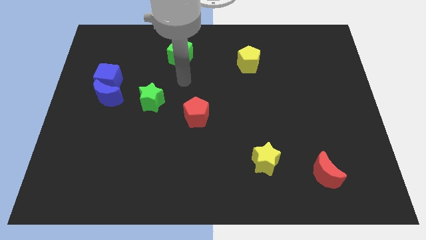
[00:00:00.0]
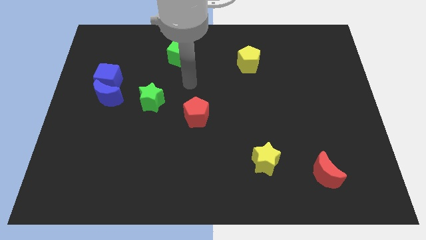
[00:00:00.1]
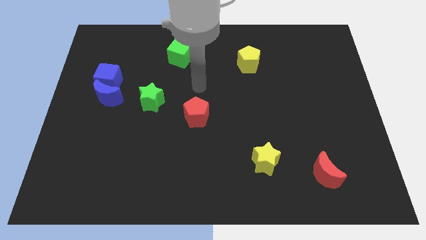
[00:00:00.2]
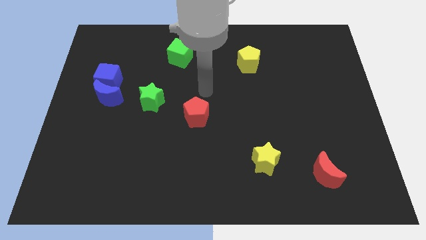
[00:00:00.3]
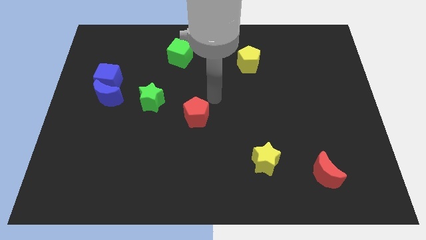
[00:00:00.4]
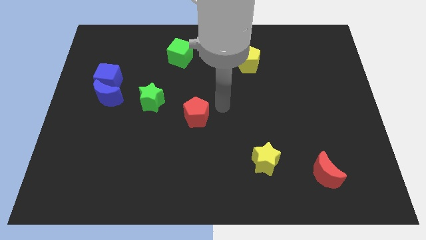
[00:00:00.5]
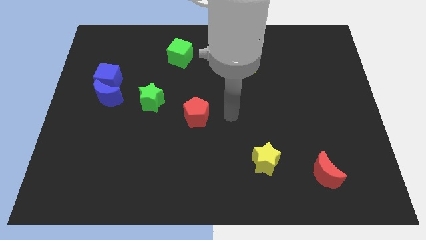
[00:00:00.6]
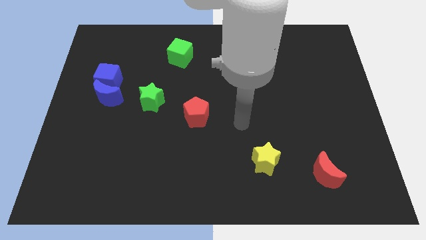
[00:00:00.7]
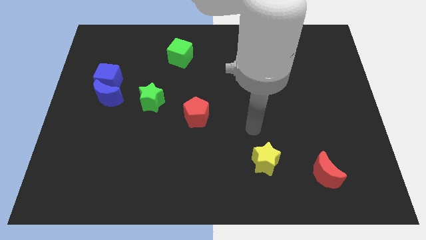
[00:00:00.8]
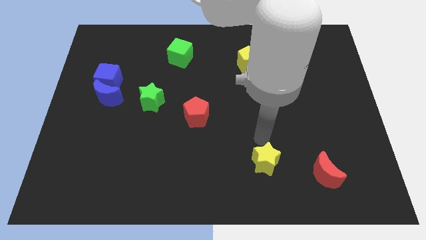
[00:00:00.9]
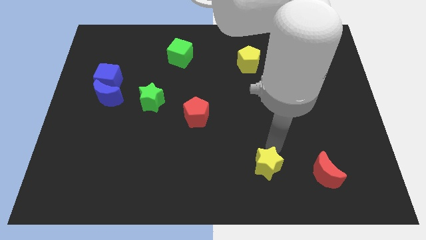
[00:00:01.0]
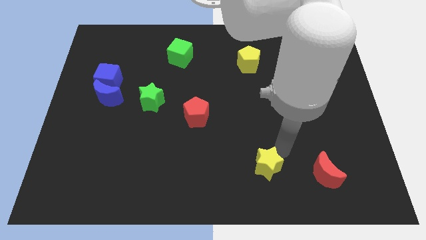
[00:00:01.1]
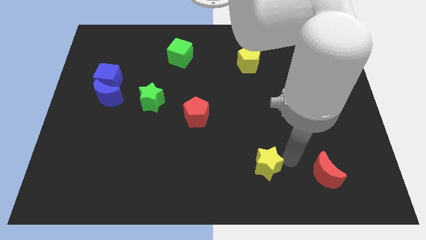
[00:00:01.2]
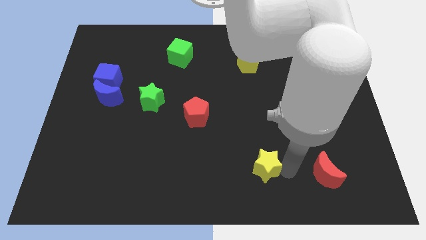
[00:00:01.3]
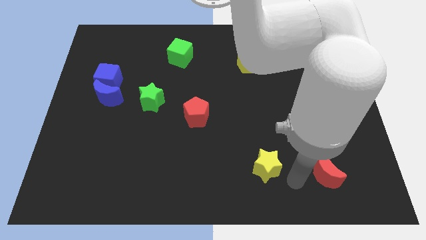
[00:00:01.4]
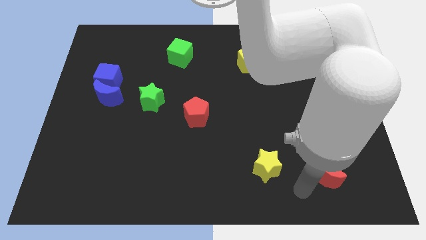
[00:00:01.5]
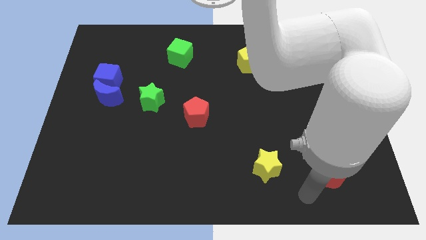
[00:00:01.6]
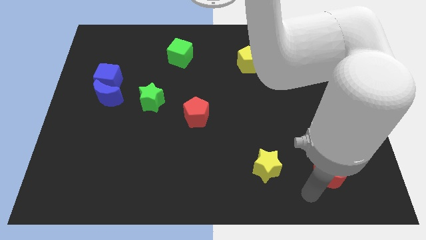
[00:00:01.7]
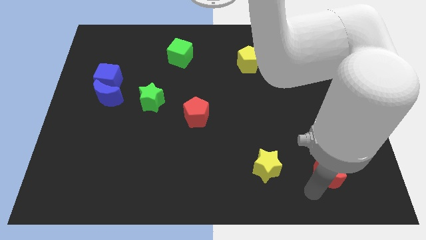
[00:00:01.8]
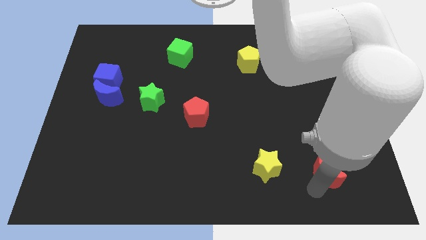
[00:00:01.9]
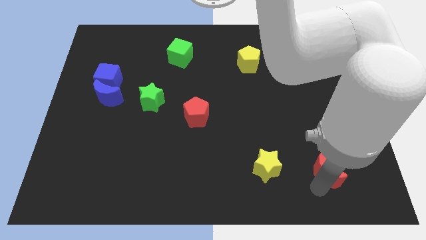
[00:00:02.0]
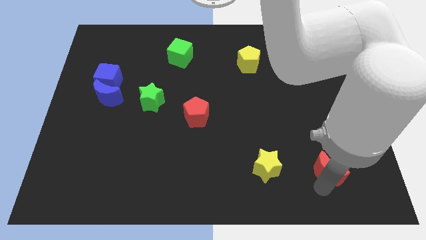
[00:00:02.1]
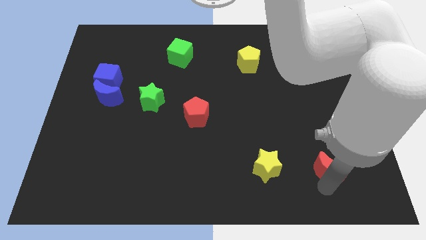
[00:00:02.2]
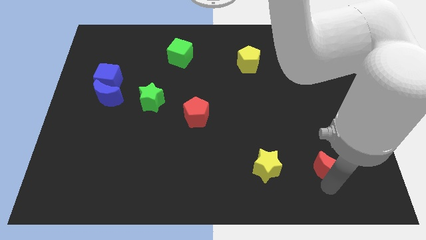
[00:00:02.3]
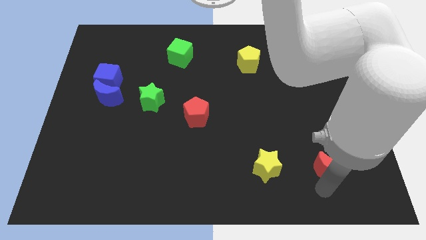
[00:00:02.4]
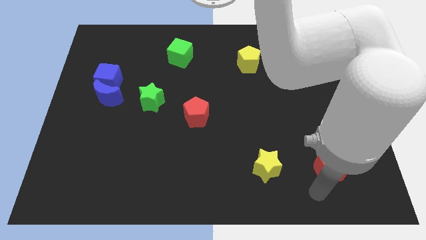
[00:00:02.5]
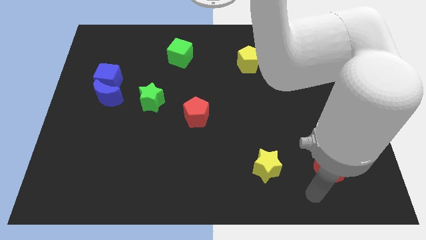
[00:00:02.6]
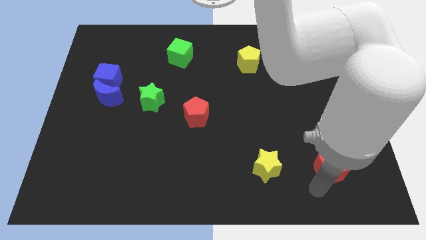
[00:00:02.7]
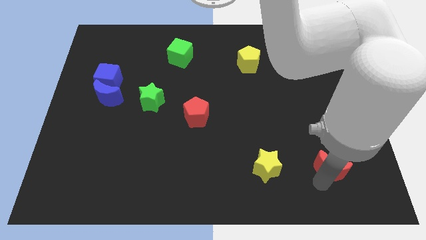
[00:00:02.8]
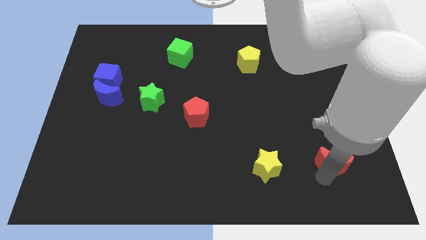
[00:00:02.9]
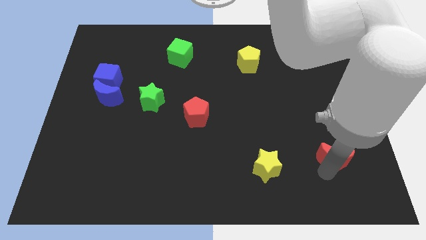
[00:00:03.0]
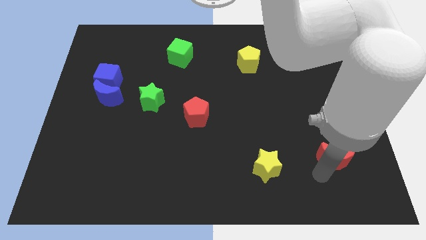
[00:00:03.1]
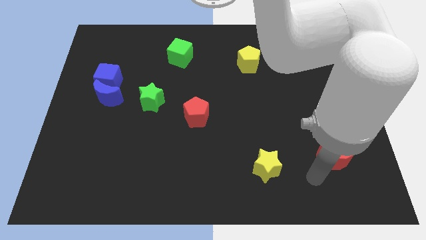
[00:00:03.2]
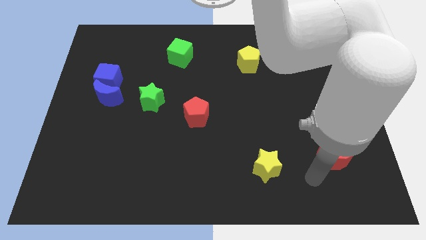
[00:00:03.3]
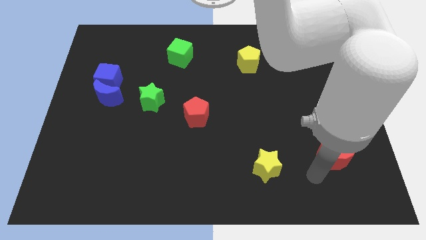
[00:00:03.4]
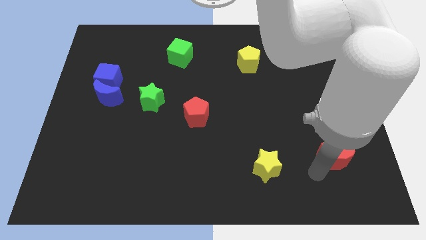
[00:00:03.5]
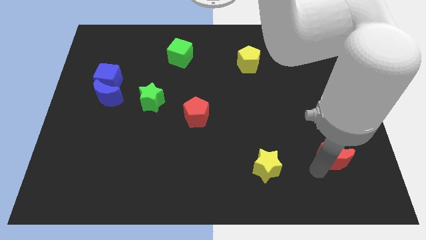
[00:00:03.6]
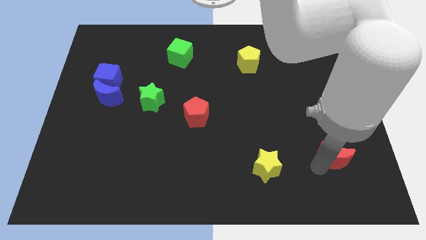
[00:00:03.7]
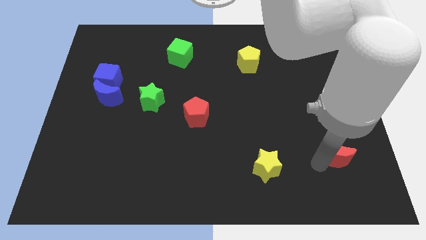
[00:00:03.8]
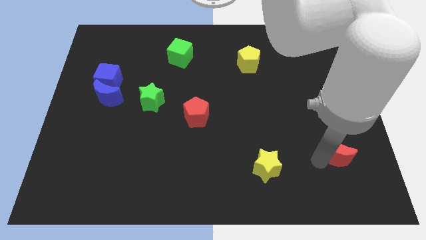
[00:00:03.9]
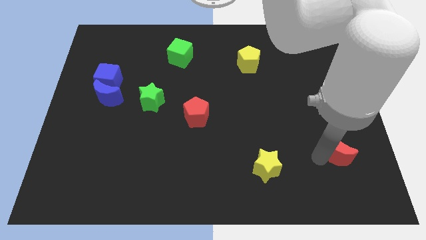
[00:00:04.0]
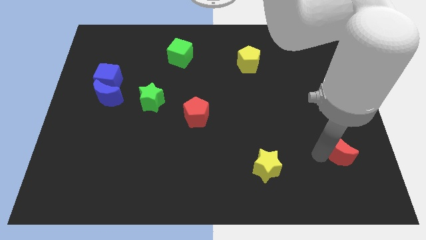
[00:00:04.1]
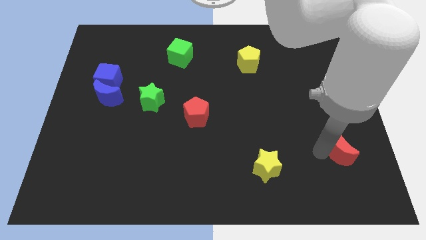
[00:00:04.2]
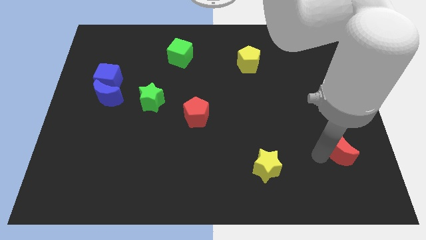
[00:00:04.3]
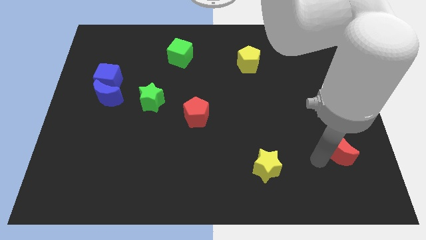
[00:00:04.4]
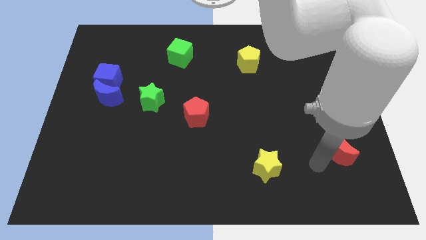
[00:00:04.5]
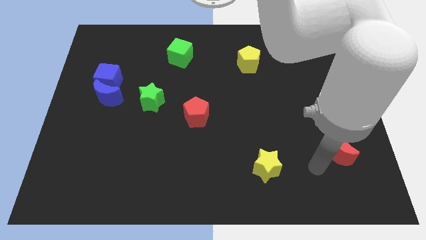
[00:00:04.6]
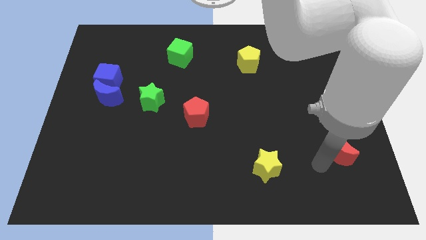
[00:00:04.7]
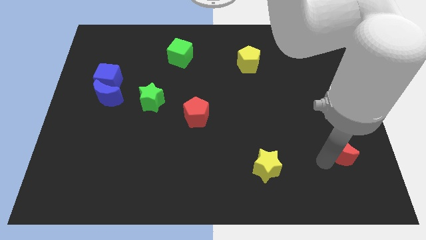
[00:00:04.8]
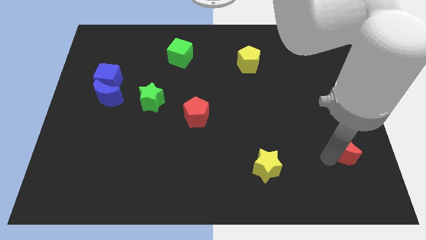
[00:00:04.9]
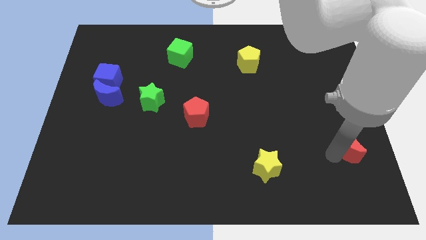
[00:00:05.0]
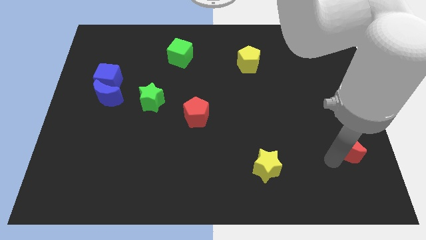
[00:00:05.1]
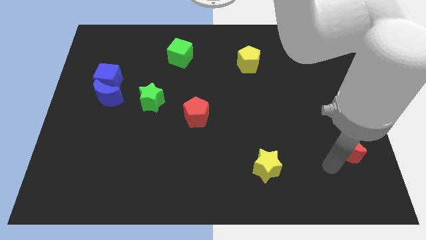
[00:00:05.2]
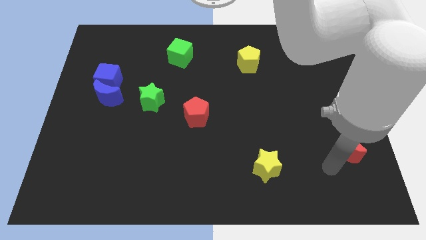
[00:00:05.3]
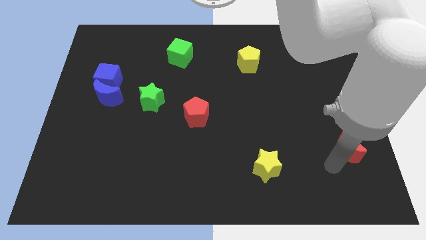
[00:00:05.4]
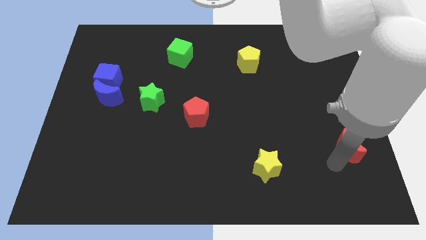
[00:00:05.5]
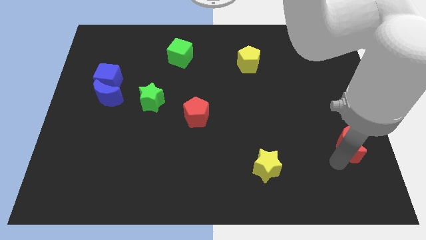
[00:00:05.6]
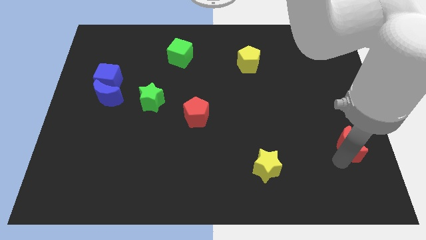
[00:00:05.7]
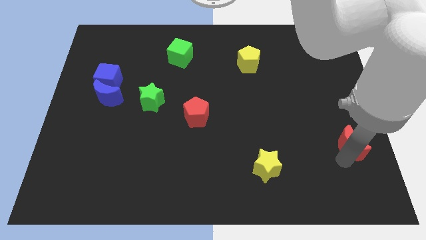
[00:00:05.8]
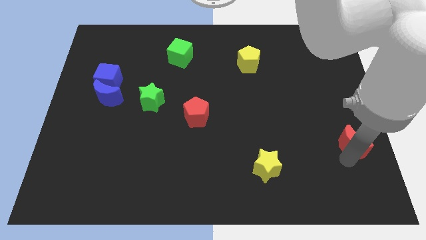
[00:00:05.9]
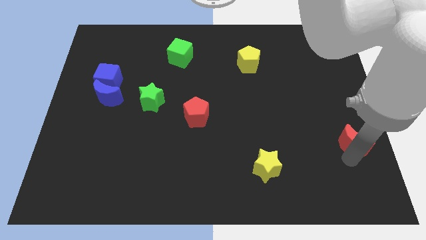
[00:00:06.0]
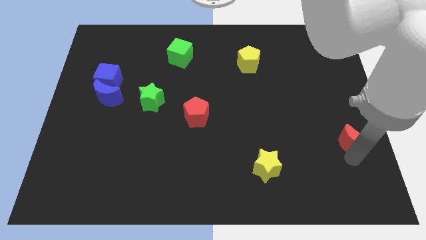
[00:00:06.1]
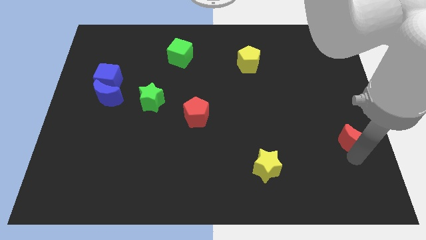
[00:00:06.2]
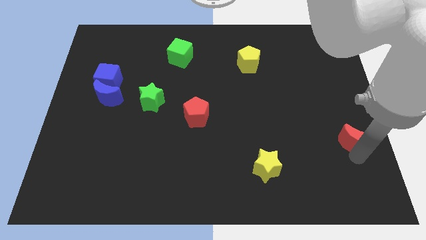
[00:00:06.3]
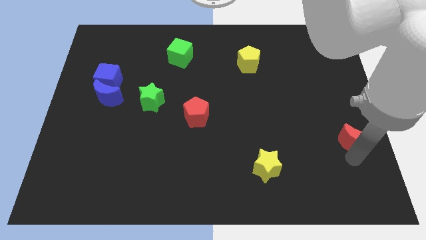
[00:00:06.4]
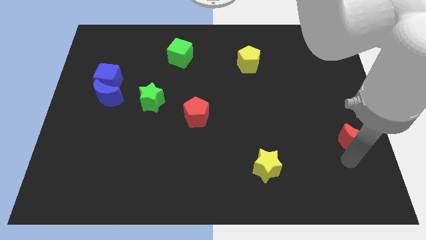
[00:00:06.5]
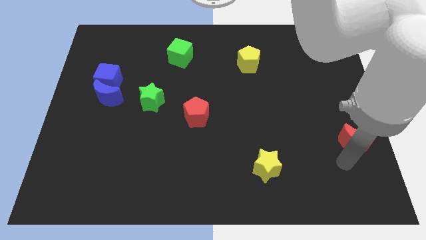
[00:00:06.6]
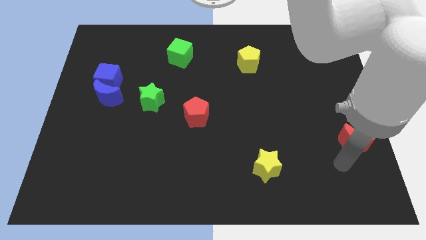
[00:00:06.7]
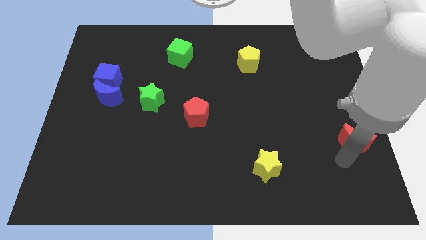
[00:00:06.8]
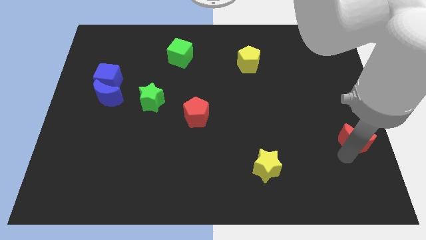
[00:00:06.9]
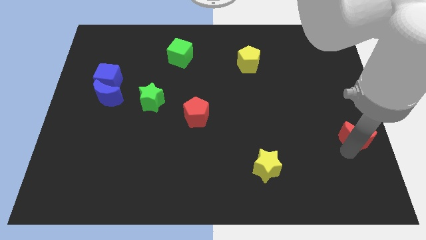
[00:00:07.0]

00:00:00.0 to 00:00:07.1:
slide the red moon to the right side
